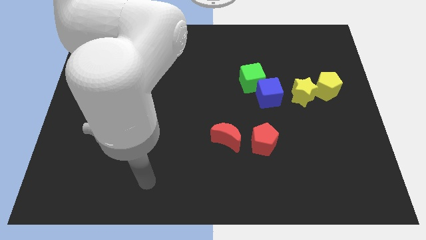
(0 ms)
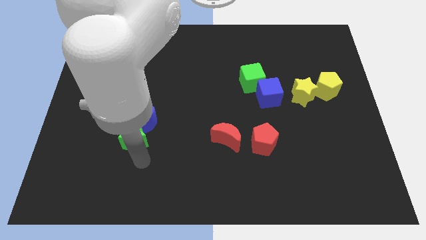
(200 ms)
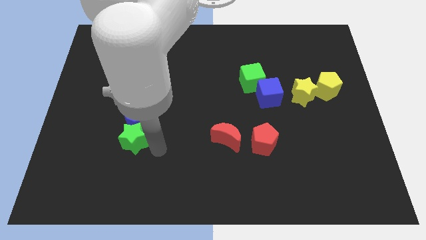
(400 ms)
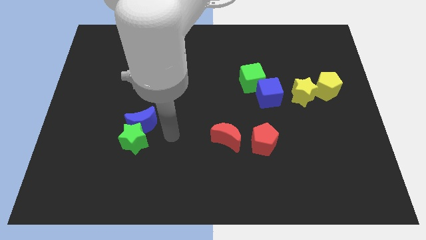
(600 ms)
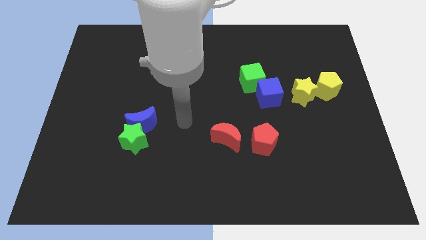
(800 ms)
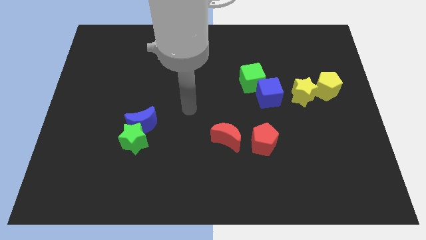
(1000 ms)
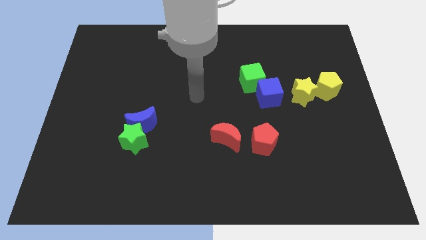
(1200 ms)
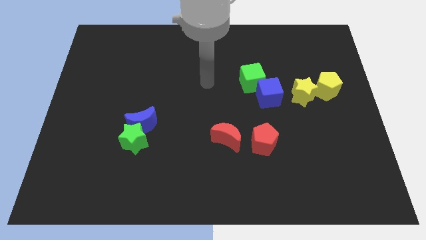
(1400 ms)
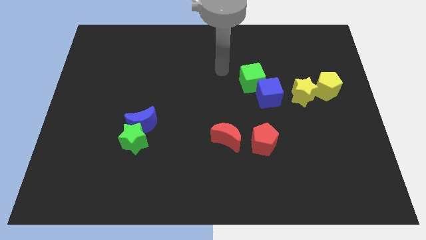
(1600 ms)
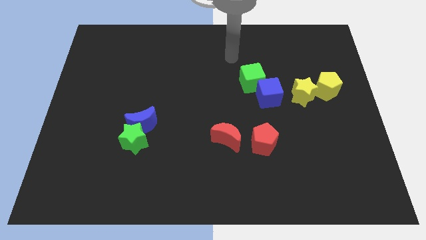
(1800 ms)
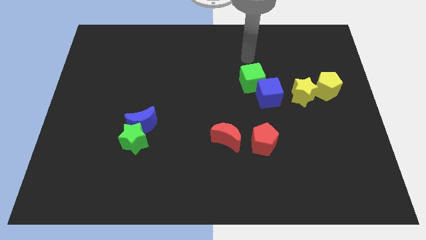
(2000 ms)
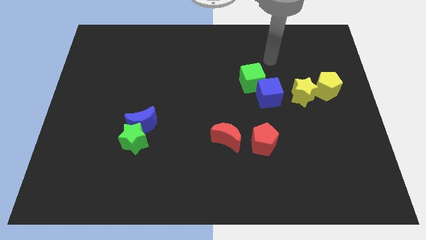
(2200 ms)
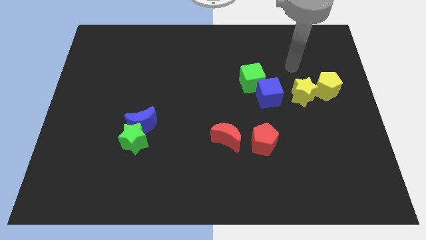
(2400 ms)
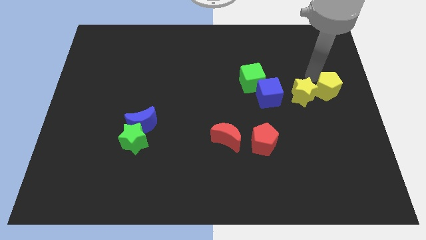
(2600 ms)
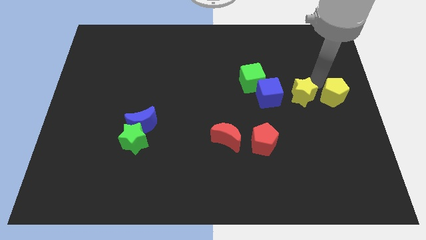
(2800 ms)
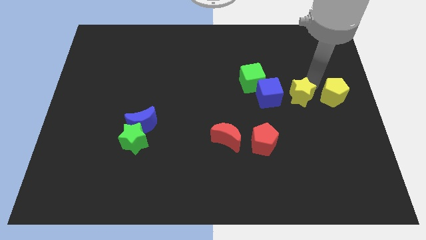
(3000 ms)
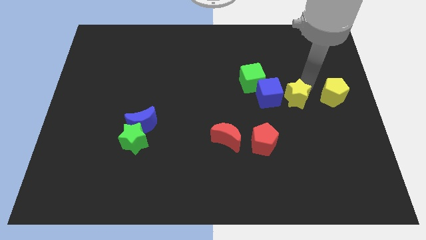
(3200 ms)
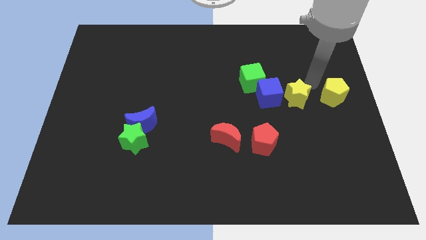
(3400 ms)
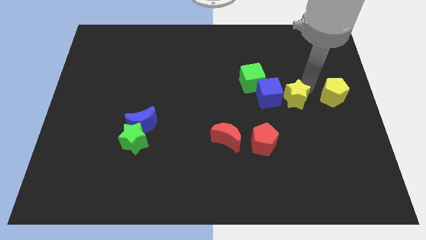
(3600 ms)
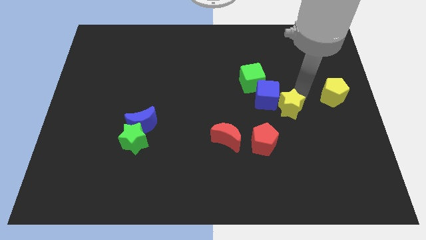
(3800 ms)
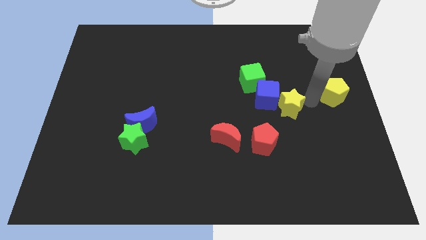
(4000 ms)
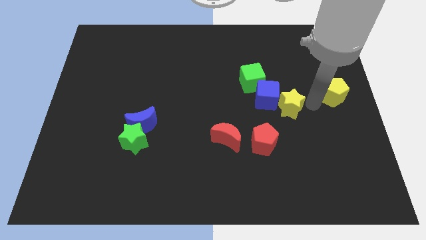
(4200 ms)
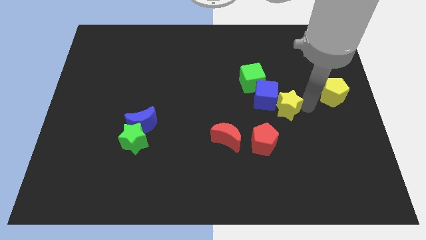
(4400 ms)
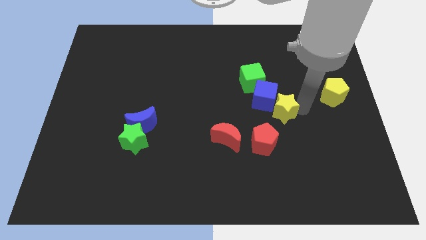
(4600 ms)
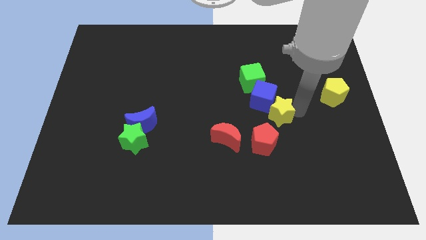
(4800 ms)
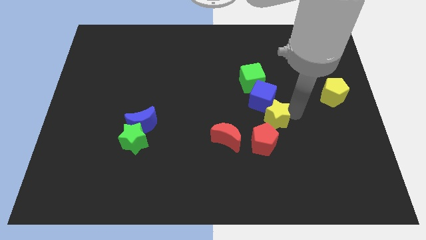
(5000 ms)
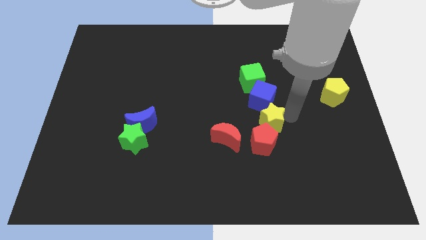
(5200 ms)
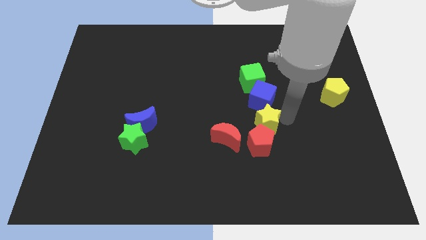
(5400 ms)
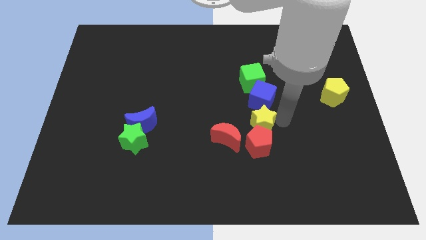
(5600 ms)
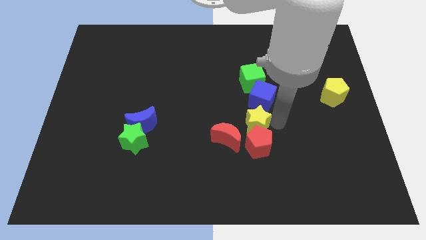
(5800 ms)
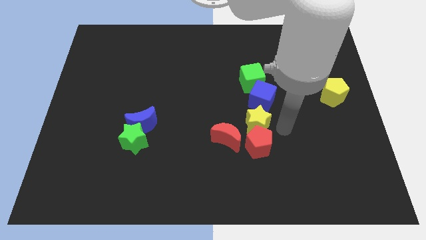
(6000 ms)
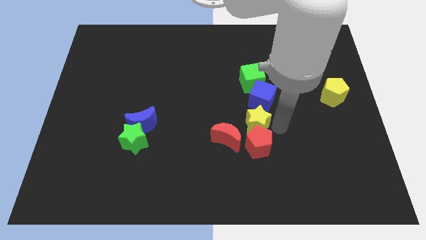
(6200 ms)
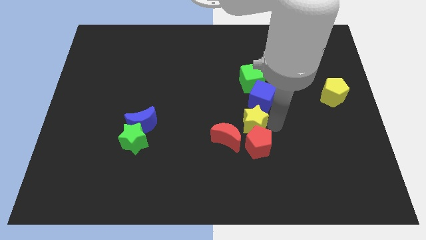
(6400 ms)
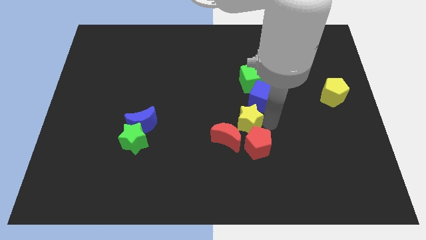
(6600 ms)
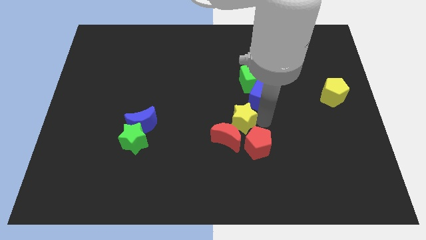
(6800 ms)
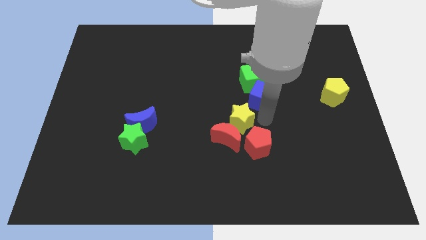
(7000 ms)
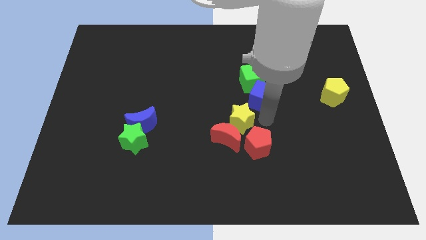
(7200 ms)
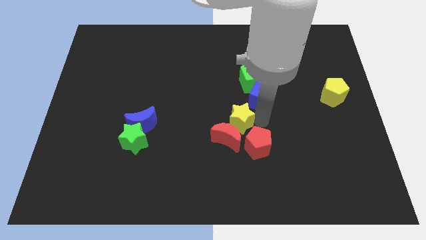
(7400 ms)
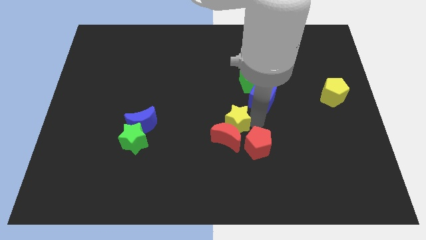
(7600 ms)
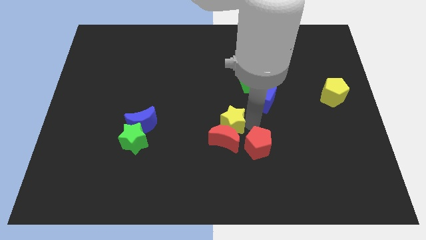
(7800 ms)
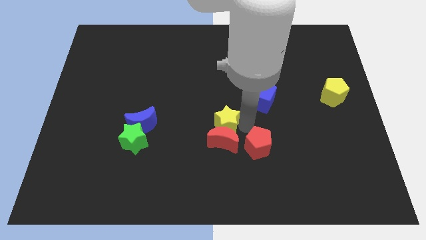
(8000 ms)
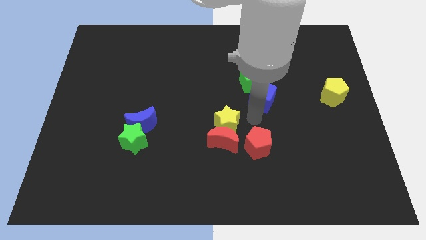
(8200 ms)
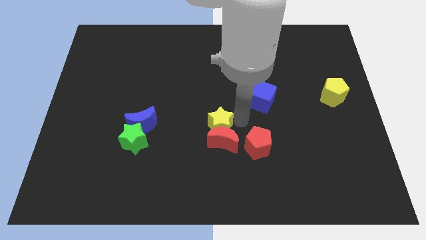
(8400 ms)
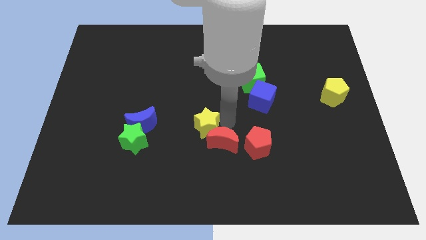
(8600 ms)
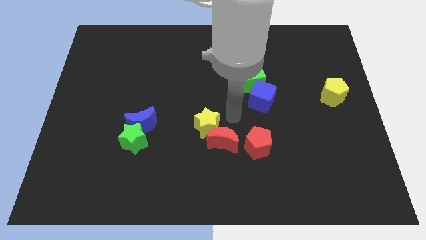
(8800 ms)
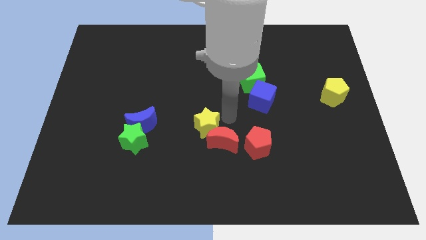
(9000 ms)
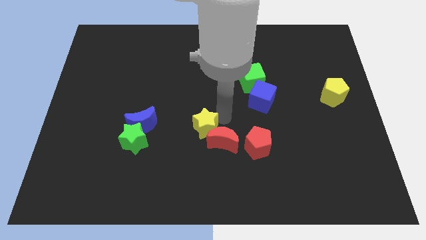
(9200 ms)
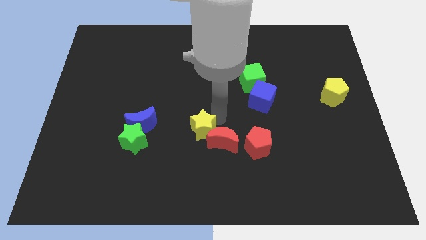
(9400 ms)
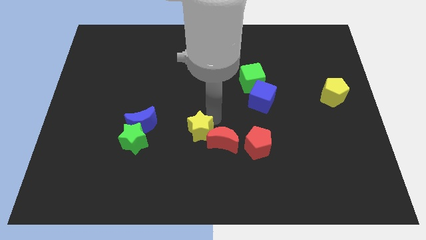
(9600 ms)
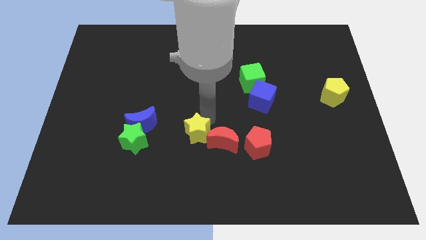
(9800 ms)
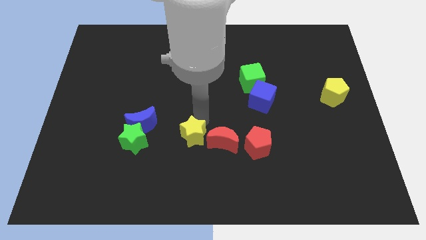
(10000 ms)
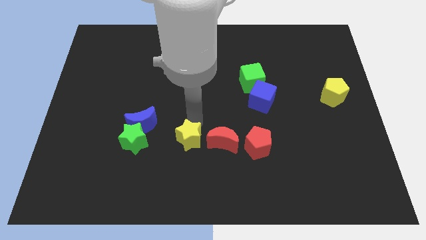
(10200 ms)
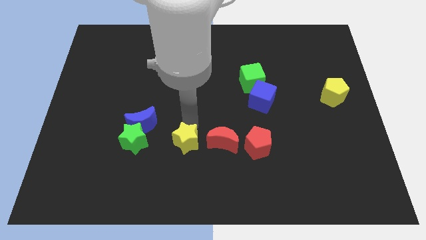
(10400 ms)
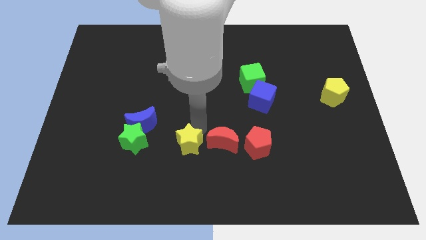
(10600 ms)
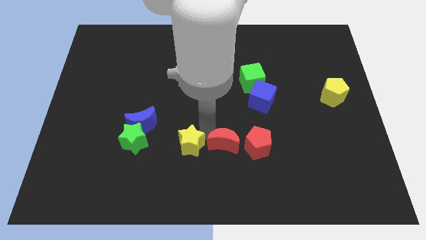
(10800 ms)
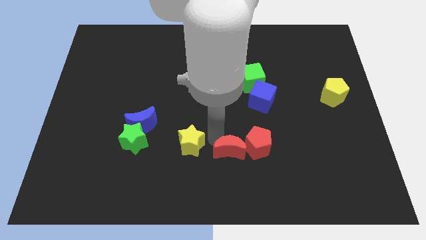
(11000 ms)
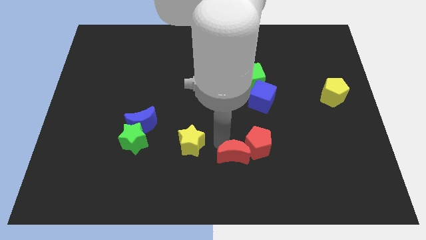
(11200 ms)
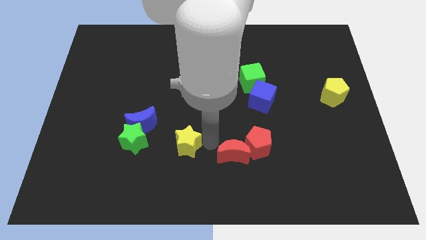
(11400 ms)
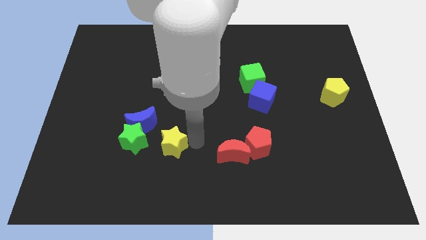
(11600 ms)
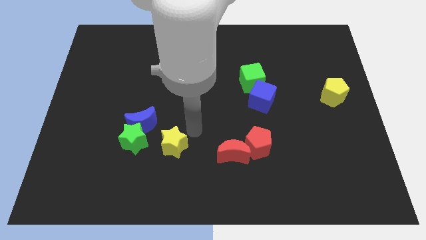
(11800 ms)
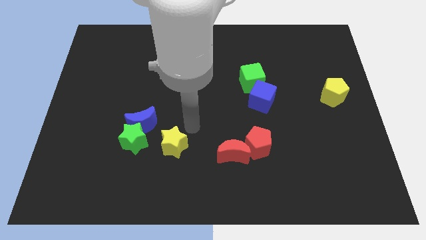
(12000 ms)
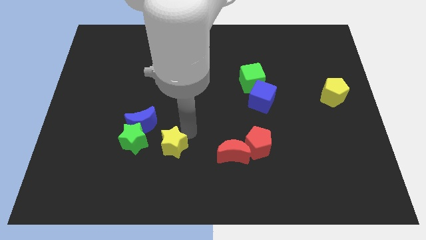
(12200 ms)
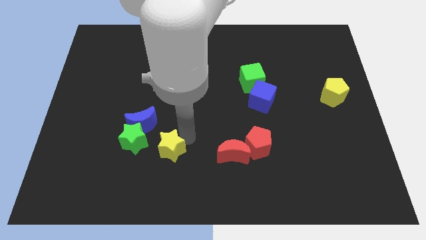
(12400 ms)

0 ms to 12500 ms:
move the yellow star to the bottom right side of the green star

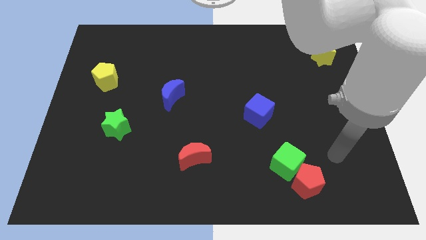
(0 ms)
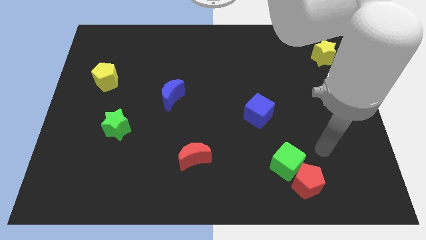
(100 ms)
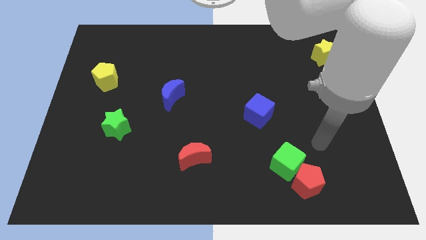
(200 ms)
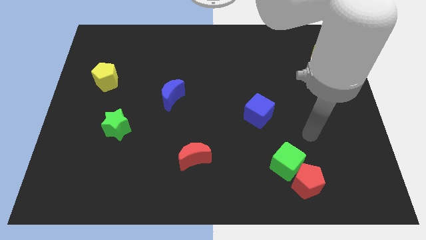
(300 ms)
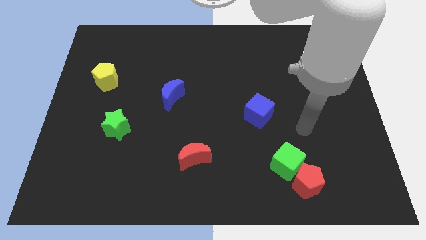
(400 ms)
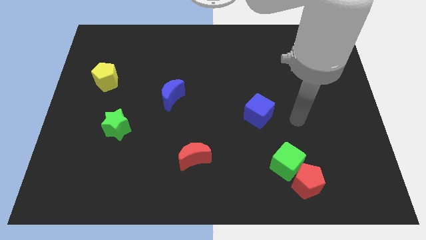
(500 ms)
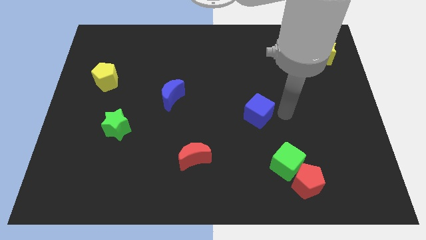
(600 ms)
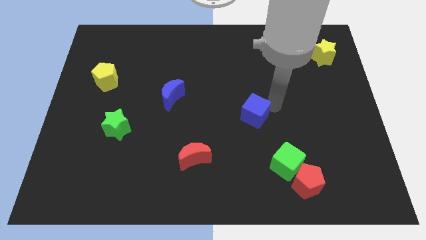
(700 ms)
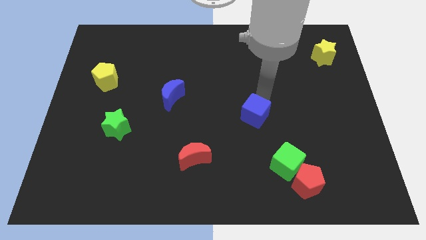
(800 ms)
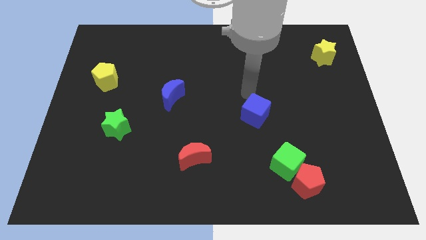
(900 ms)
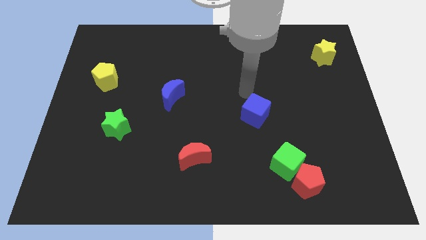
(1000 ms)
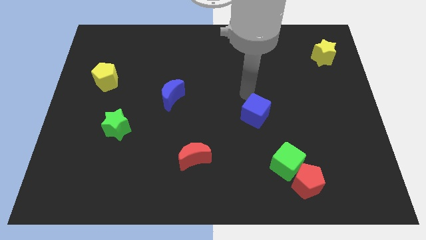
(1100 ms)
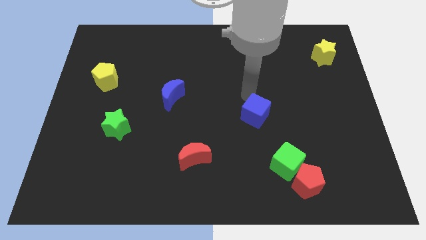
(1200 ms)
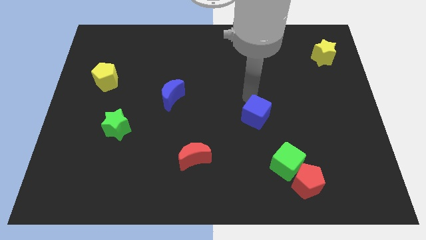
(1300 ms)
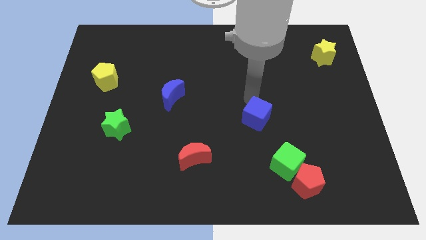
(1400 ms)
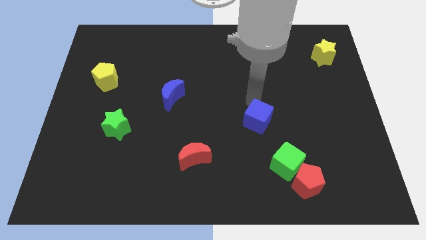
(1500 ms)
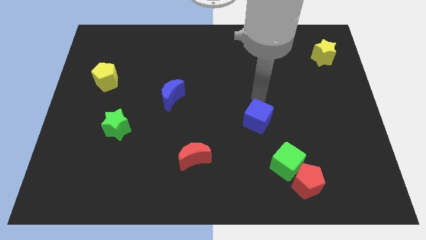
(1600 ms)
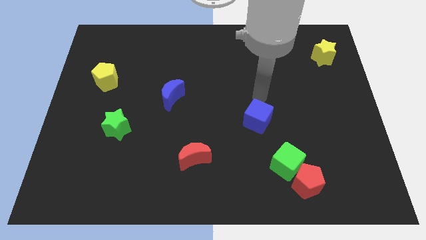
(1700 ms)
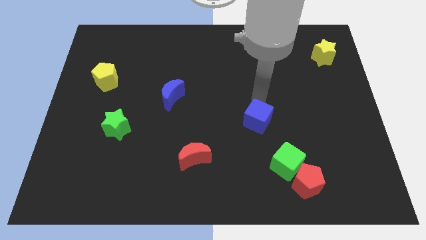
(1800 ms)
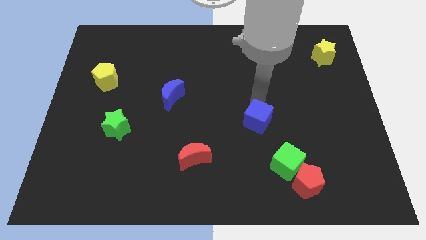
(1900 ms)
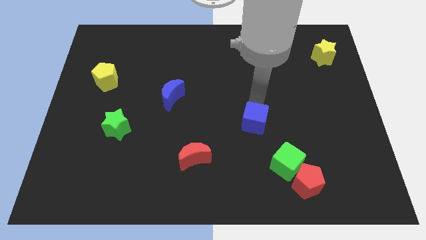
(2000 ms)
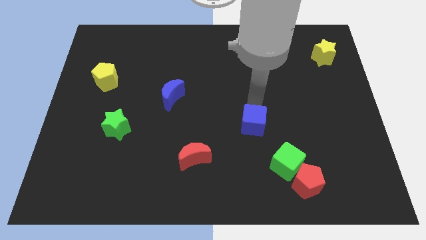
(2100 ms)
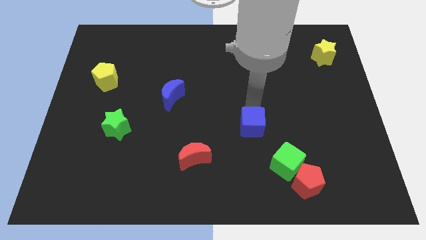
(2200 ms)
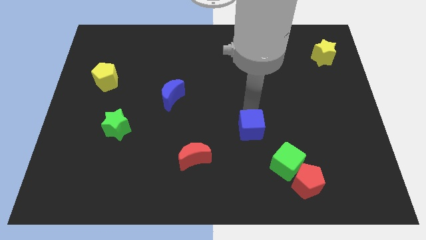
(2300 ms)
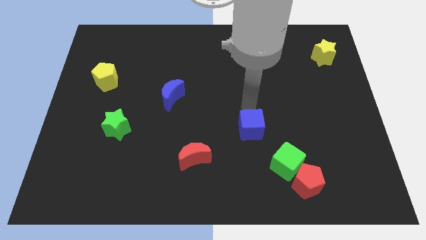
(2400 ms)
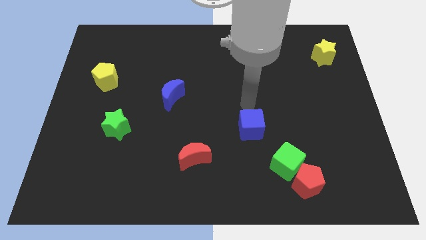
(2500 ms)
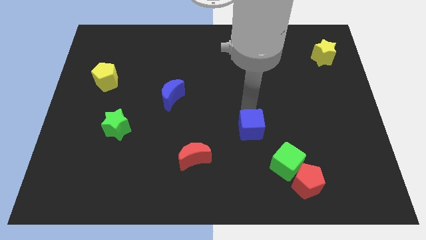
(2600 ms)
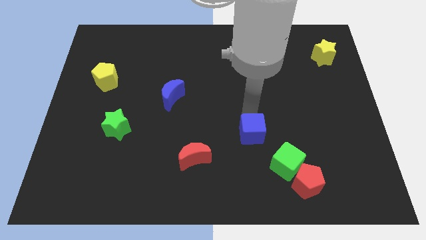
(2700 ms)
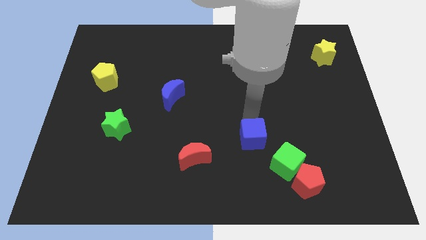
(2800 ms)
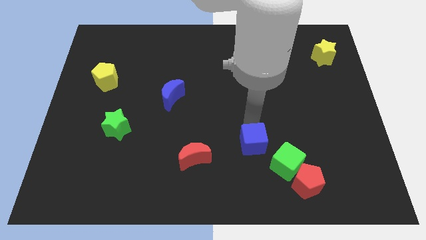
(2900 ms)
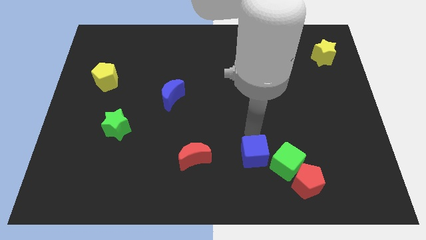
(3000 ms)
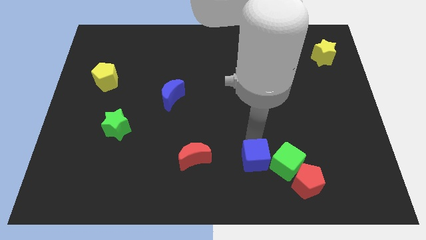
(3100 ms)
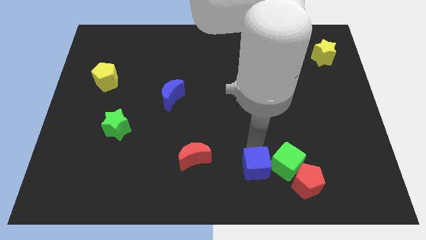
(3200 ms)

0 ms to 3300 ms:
put the blue cube left of the red pentagon
